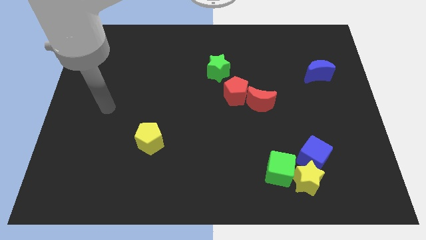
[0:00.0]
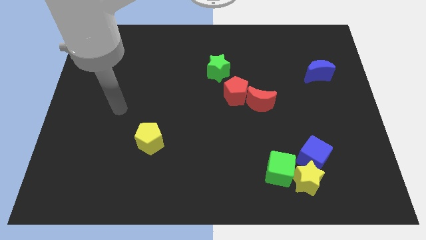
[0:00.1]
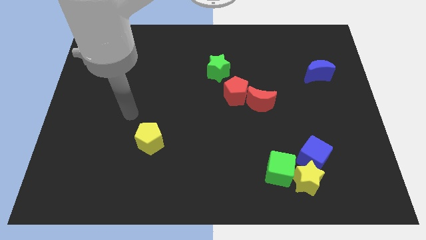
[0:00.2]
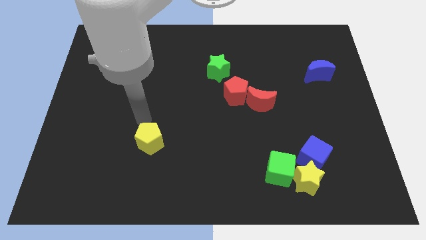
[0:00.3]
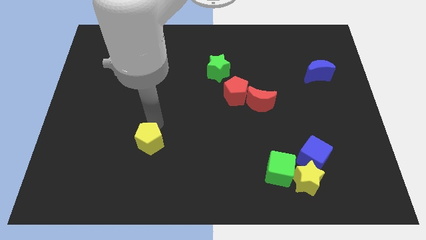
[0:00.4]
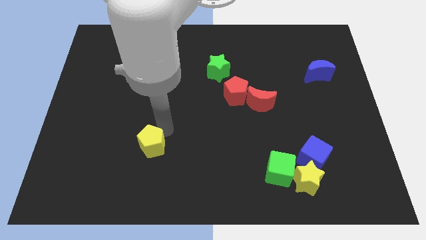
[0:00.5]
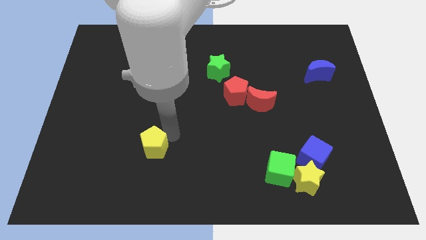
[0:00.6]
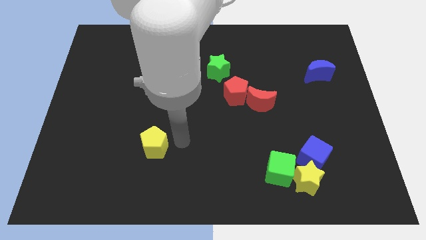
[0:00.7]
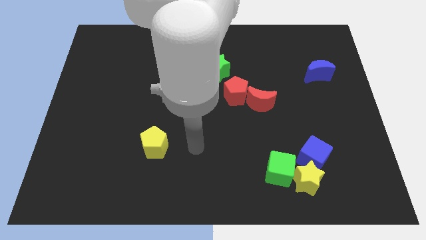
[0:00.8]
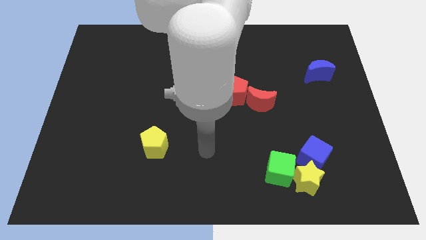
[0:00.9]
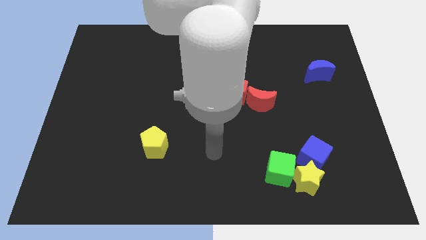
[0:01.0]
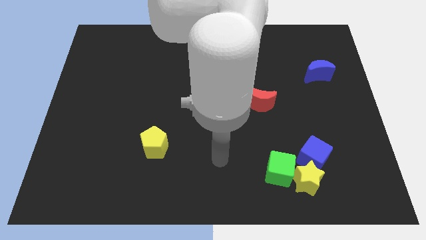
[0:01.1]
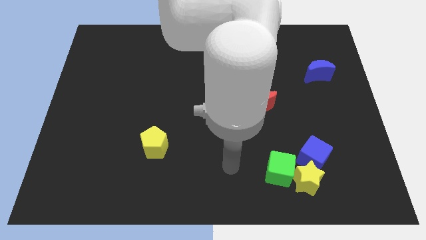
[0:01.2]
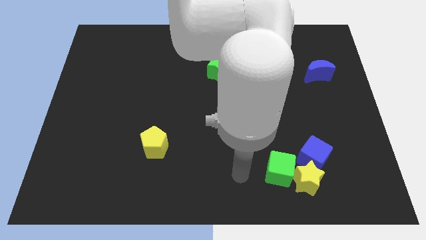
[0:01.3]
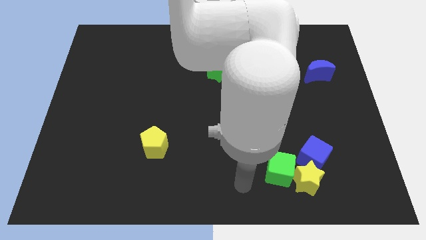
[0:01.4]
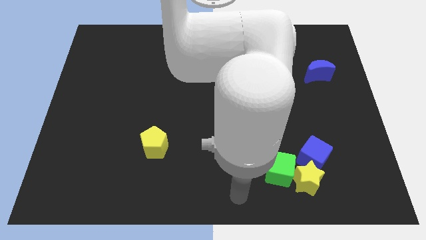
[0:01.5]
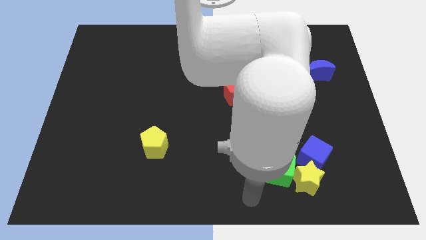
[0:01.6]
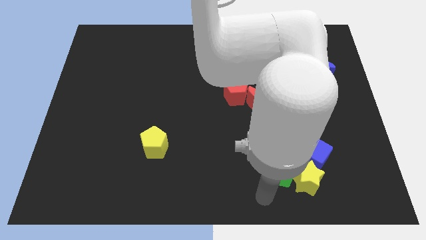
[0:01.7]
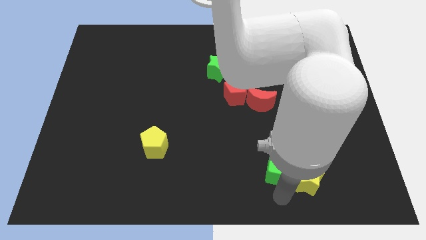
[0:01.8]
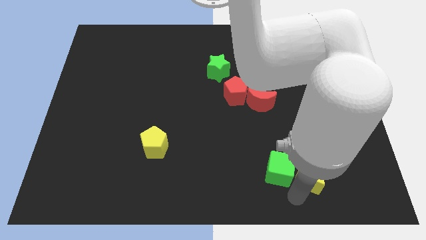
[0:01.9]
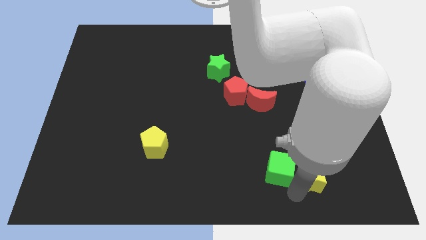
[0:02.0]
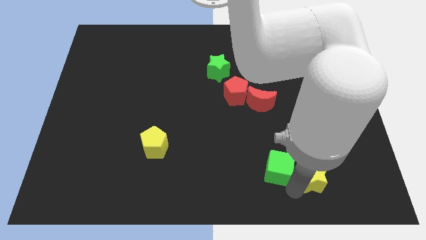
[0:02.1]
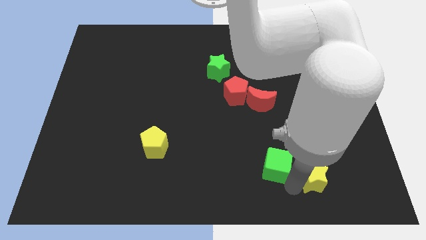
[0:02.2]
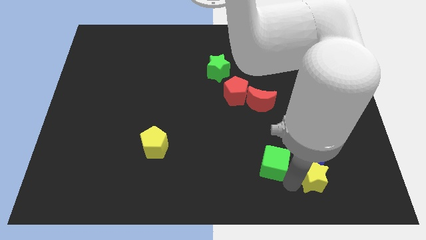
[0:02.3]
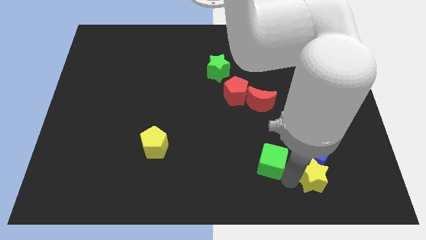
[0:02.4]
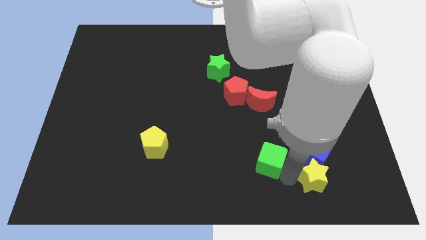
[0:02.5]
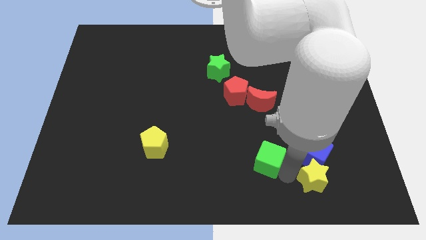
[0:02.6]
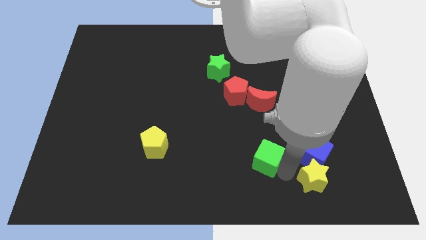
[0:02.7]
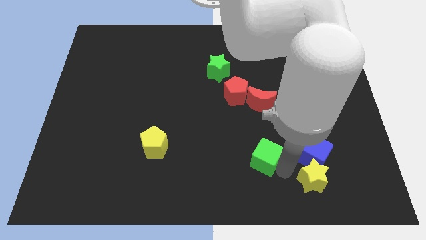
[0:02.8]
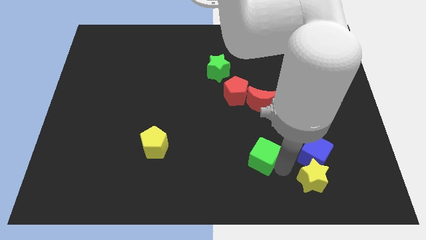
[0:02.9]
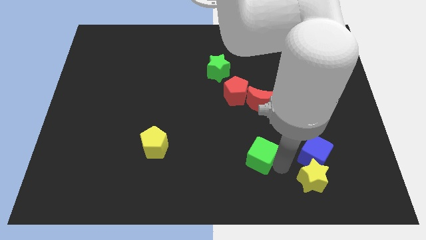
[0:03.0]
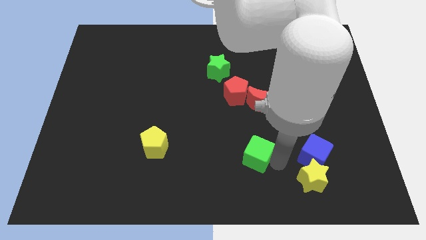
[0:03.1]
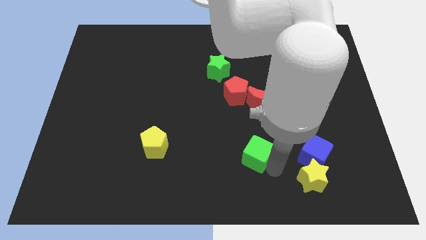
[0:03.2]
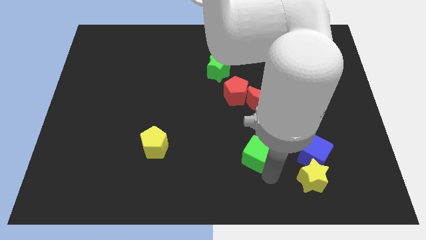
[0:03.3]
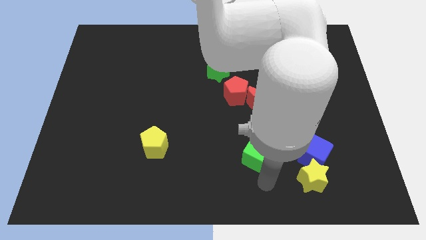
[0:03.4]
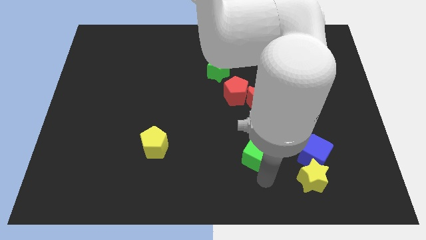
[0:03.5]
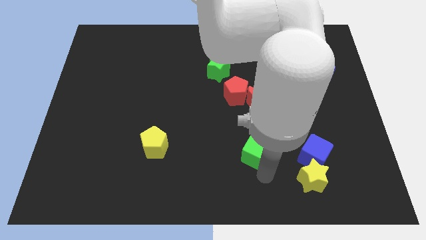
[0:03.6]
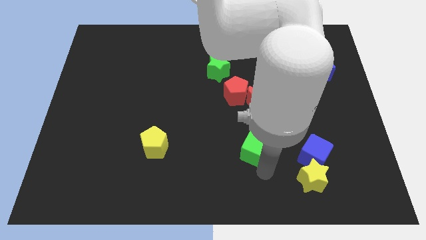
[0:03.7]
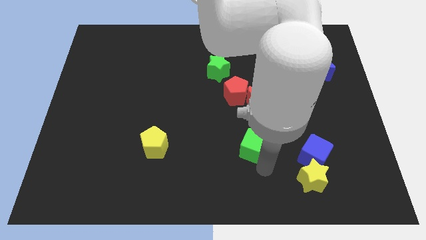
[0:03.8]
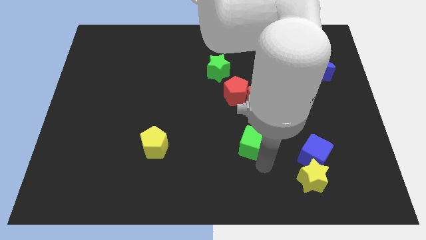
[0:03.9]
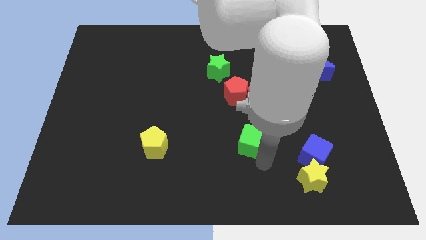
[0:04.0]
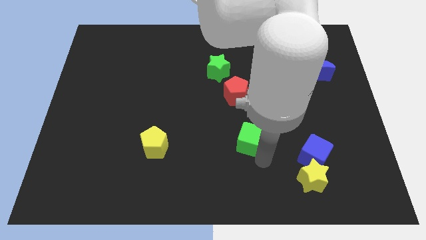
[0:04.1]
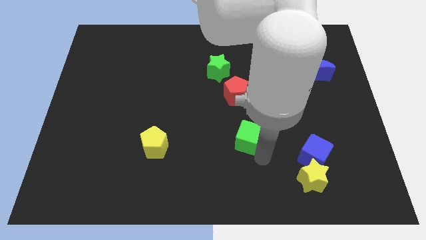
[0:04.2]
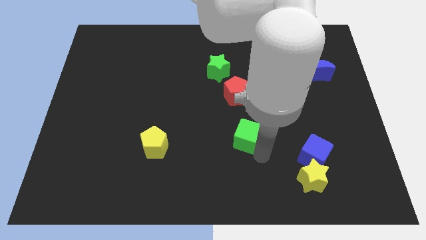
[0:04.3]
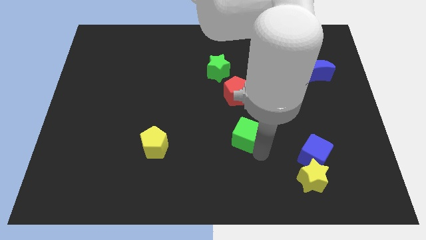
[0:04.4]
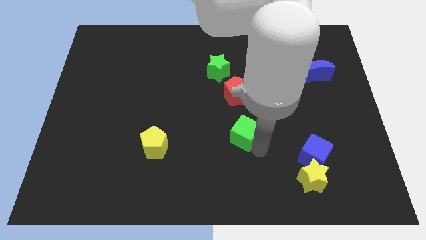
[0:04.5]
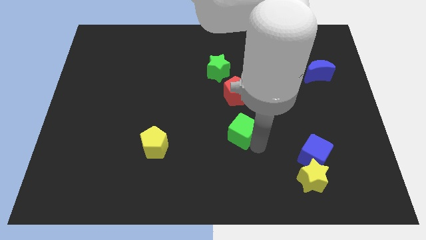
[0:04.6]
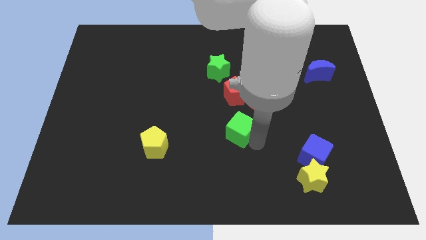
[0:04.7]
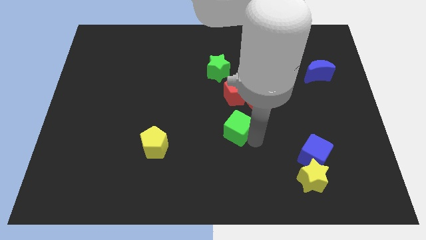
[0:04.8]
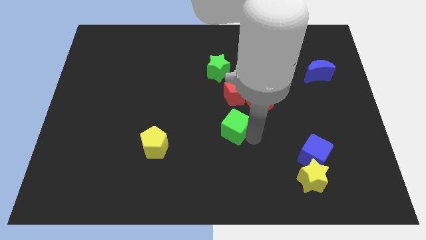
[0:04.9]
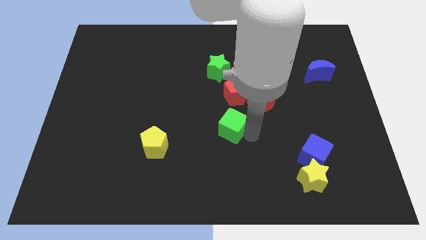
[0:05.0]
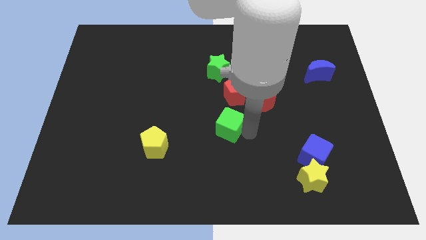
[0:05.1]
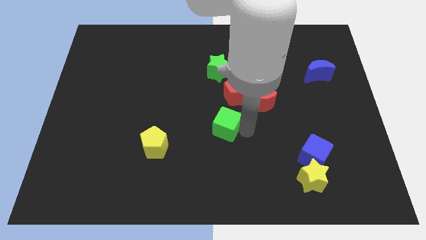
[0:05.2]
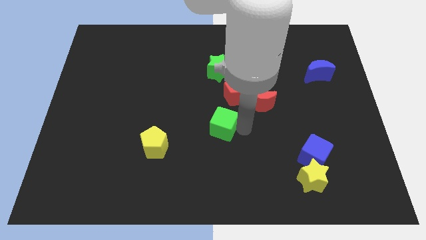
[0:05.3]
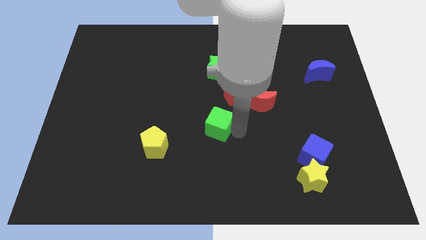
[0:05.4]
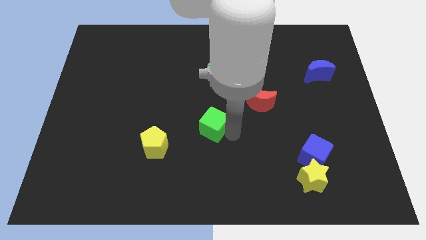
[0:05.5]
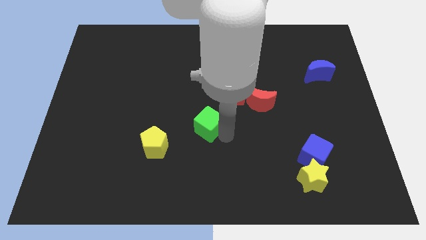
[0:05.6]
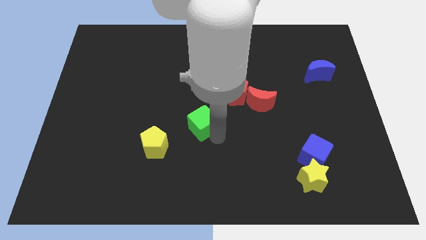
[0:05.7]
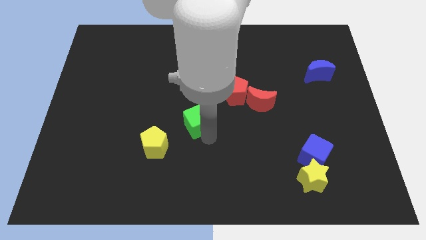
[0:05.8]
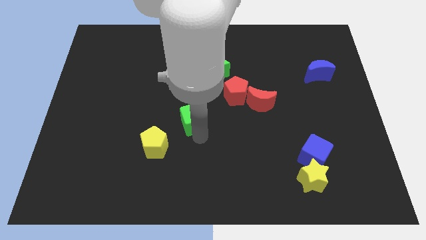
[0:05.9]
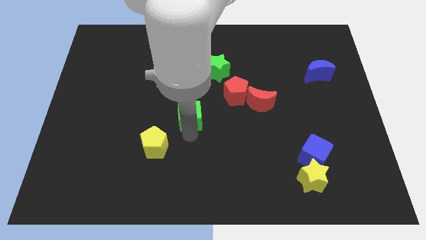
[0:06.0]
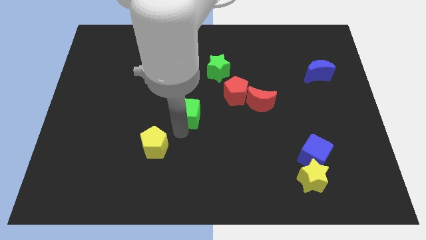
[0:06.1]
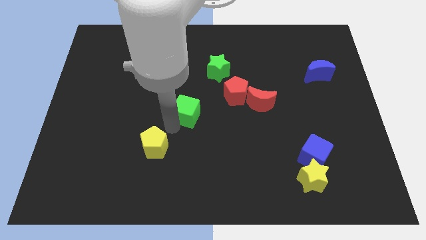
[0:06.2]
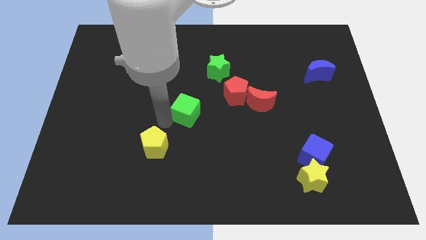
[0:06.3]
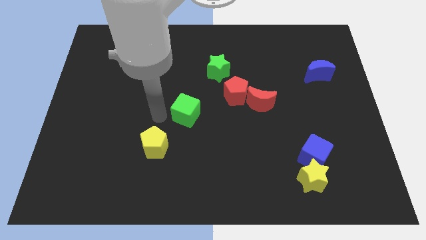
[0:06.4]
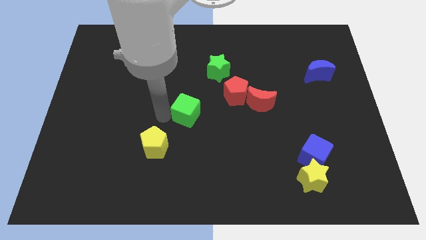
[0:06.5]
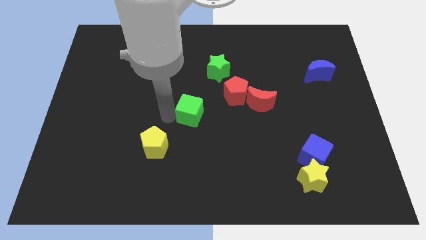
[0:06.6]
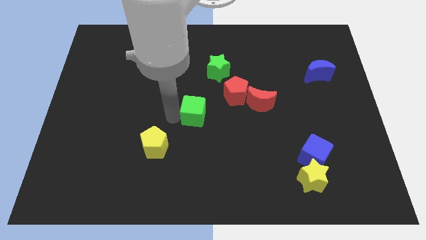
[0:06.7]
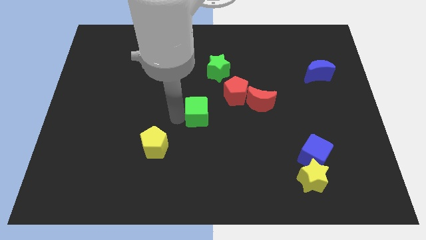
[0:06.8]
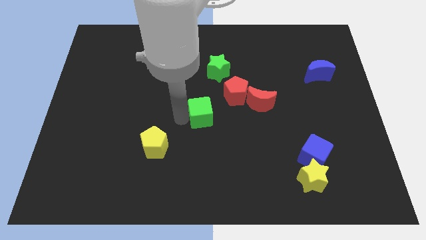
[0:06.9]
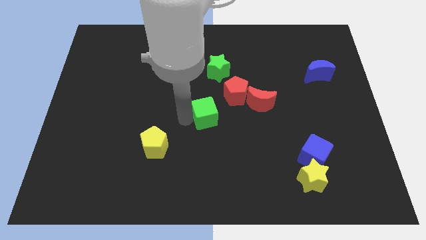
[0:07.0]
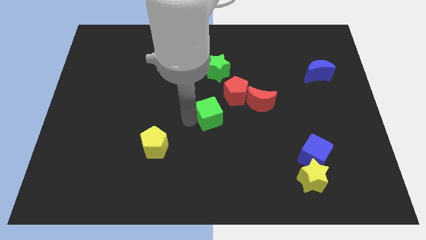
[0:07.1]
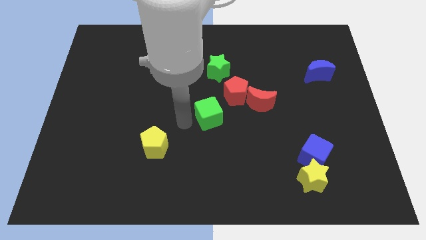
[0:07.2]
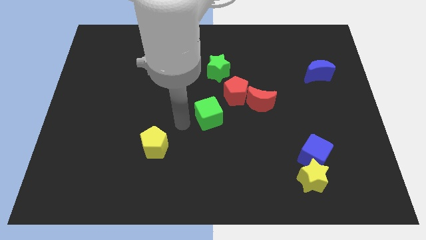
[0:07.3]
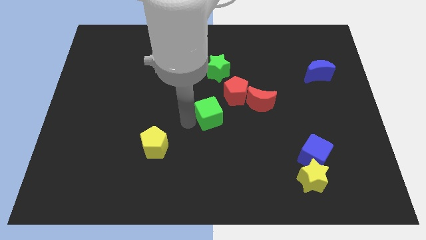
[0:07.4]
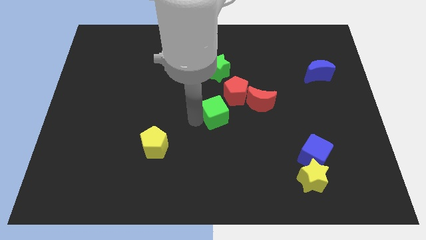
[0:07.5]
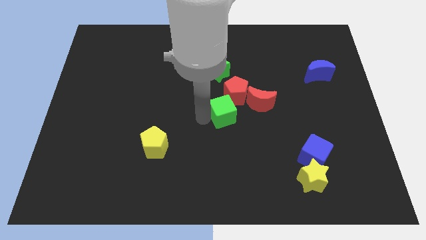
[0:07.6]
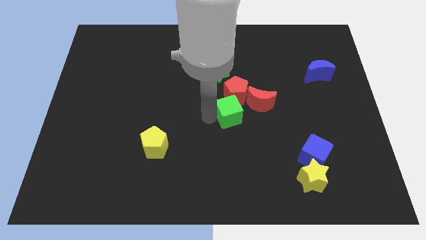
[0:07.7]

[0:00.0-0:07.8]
move the green cube to the red pentagon
